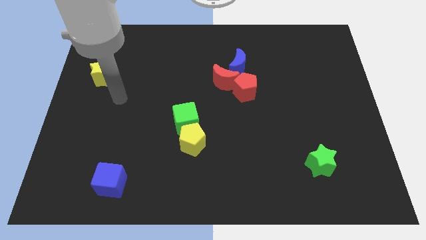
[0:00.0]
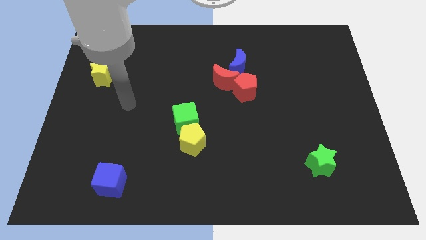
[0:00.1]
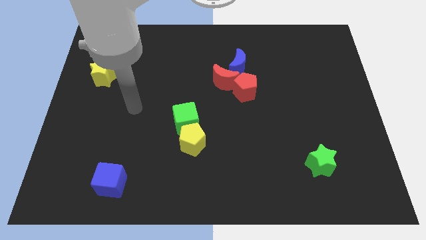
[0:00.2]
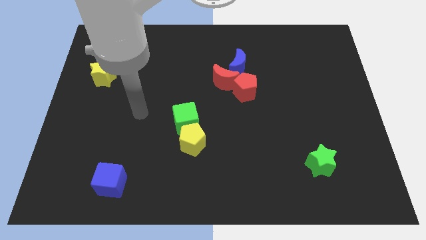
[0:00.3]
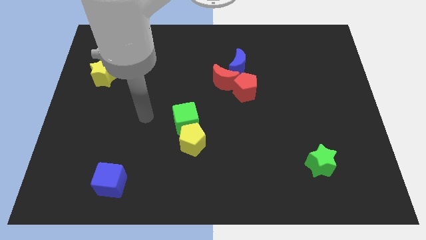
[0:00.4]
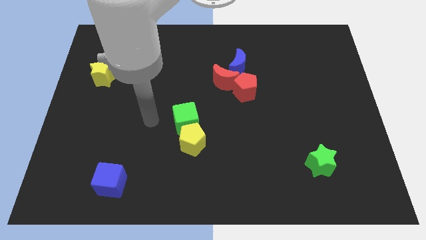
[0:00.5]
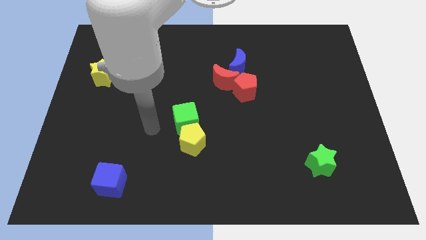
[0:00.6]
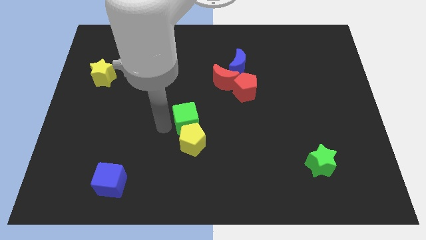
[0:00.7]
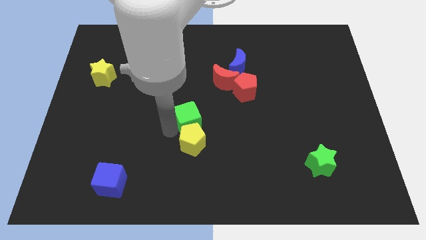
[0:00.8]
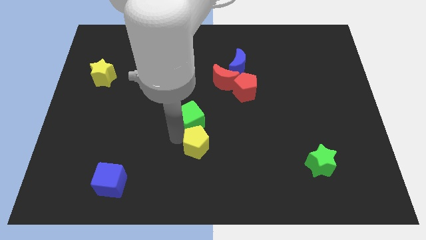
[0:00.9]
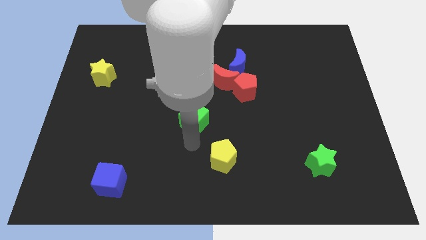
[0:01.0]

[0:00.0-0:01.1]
move the green cube away from the yellow pentagon

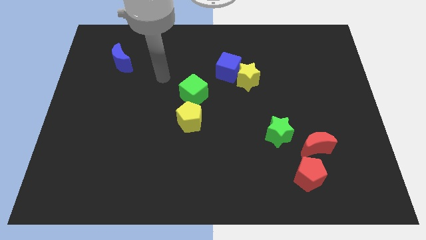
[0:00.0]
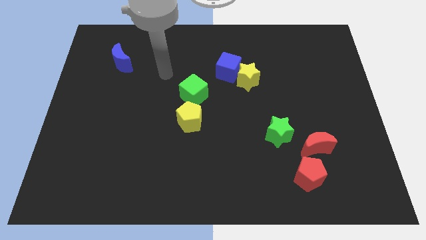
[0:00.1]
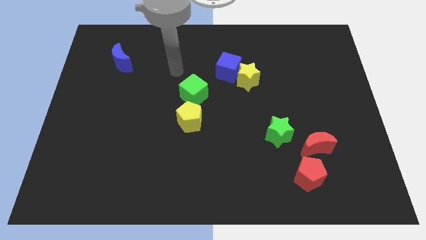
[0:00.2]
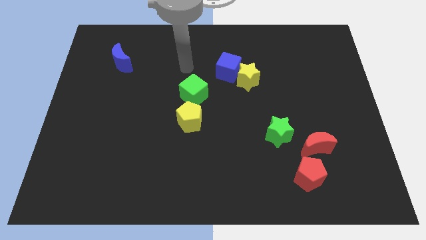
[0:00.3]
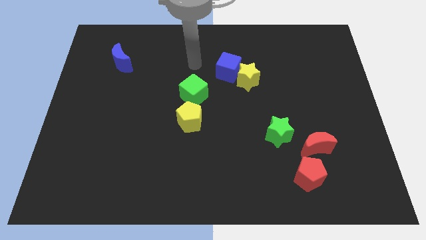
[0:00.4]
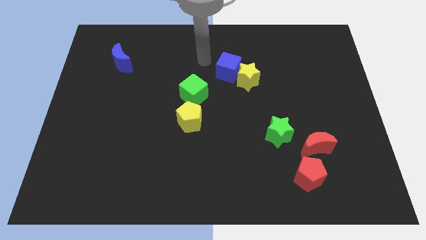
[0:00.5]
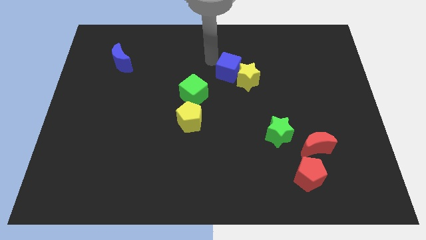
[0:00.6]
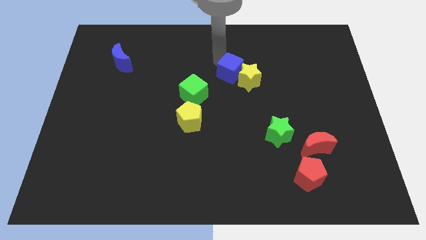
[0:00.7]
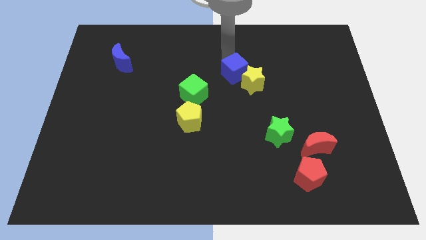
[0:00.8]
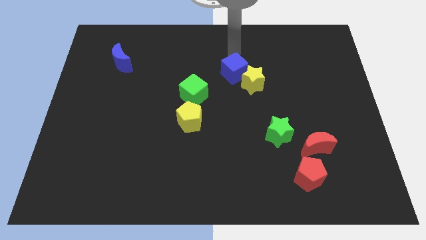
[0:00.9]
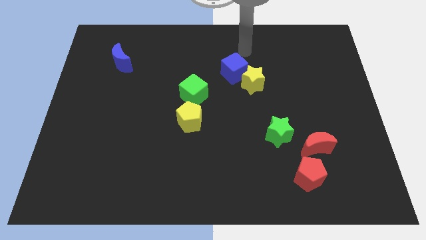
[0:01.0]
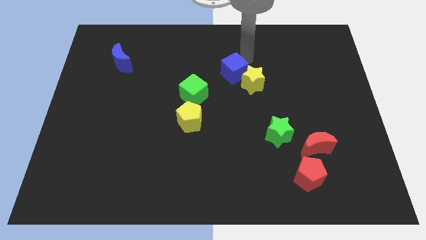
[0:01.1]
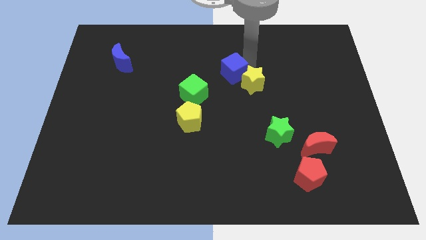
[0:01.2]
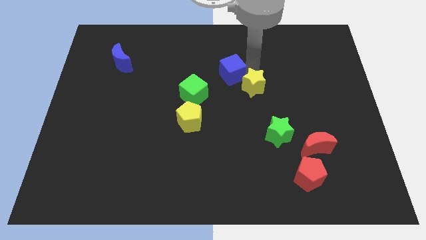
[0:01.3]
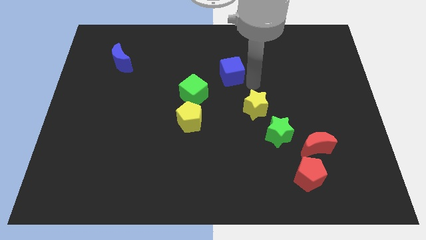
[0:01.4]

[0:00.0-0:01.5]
pull the blue cube apart from the yellow star

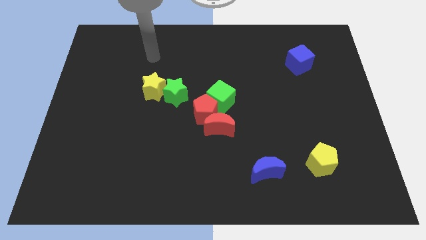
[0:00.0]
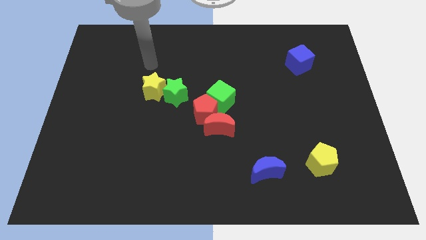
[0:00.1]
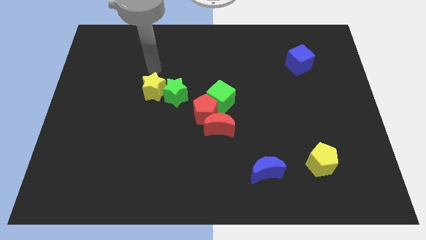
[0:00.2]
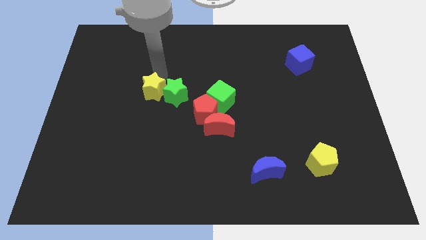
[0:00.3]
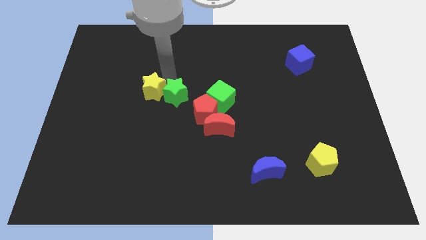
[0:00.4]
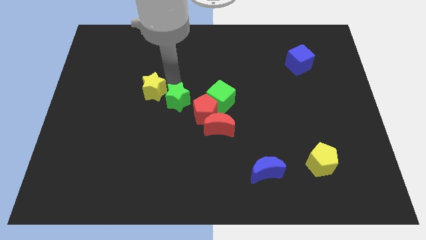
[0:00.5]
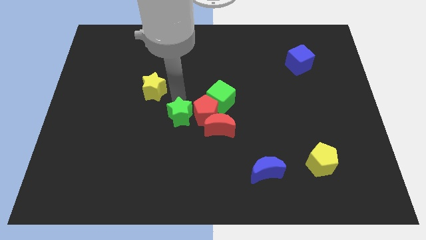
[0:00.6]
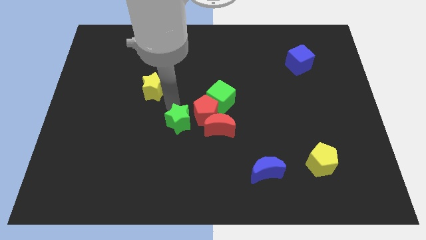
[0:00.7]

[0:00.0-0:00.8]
separate the yellow star from the green star

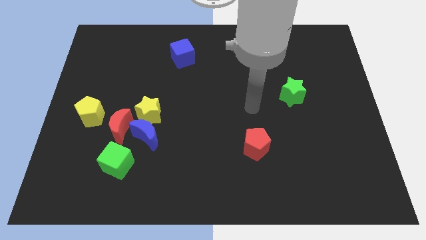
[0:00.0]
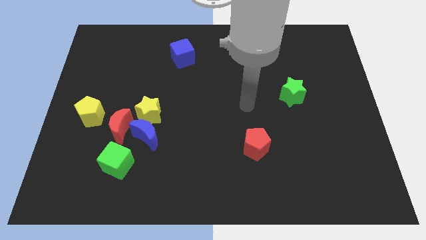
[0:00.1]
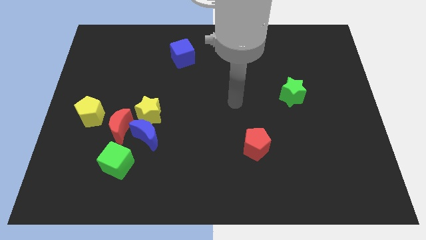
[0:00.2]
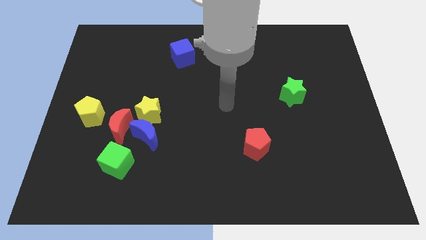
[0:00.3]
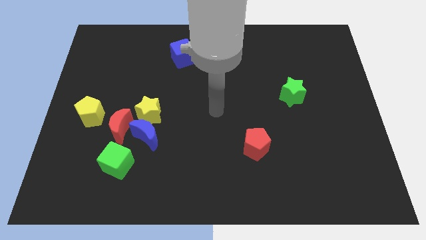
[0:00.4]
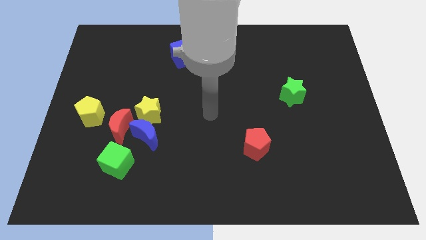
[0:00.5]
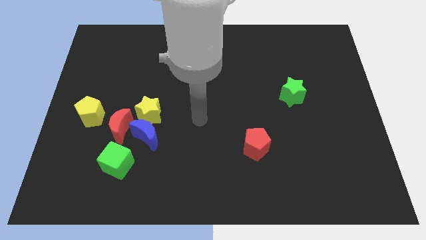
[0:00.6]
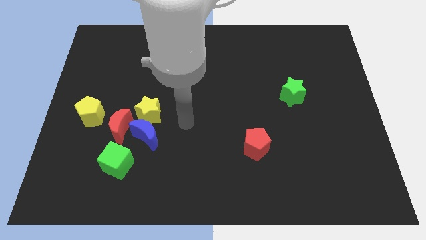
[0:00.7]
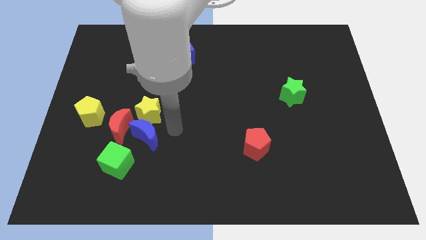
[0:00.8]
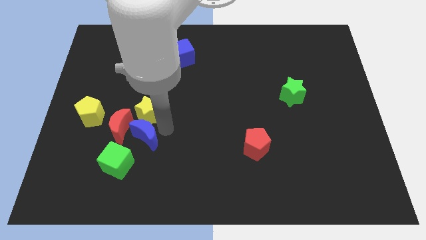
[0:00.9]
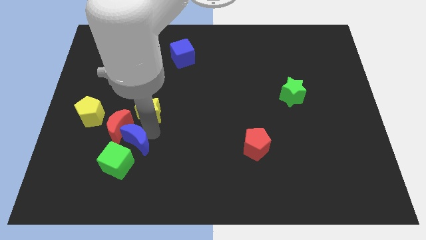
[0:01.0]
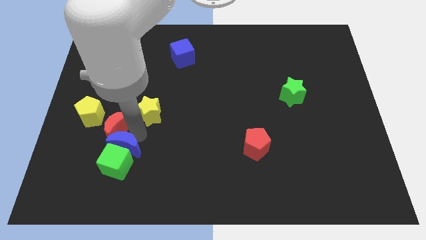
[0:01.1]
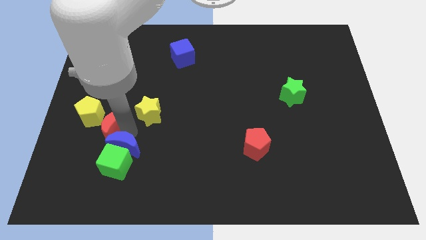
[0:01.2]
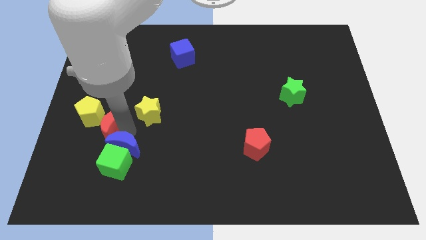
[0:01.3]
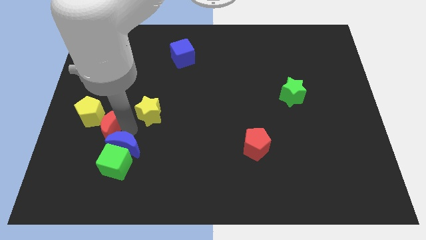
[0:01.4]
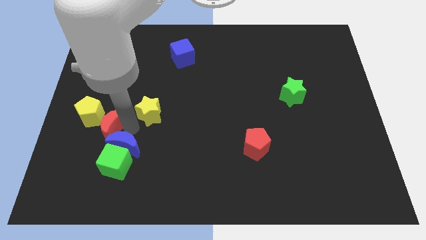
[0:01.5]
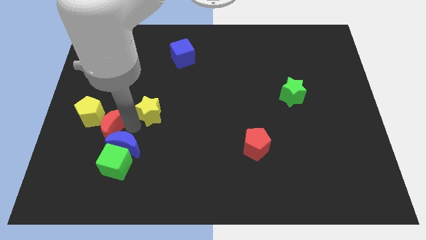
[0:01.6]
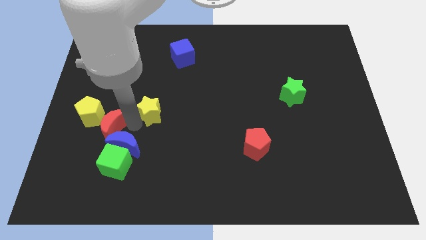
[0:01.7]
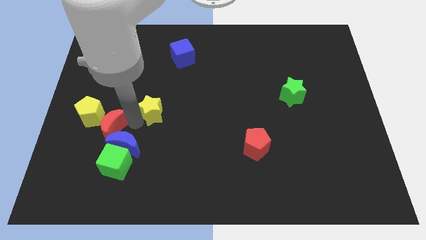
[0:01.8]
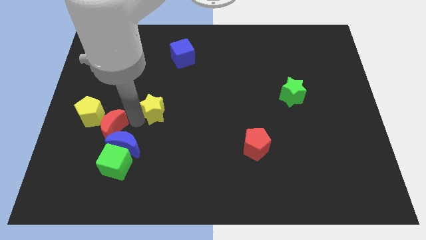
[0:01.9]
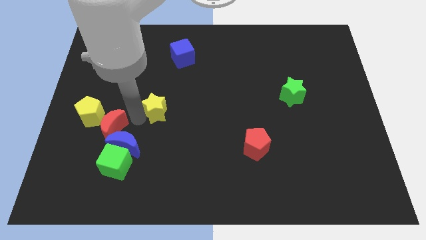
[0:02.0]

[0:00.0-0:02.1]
move the yellow star away from the blue moon and red moon

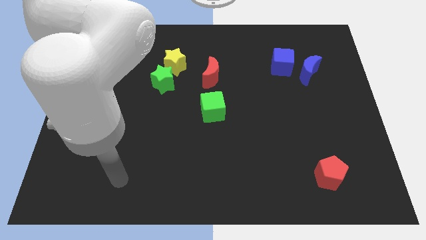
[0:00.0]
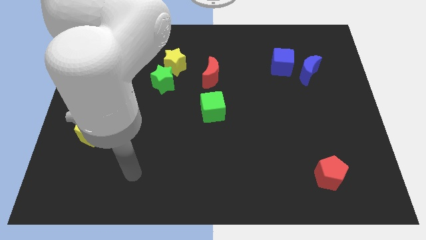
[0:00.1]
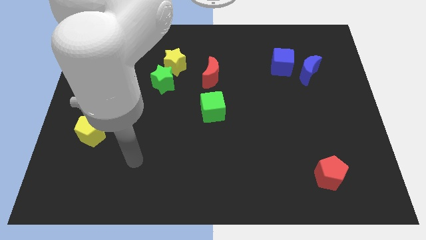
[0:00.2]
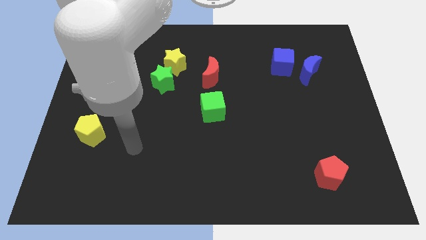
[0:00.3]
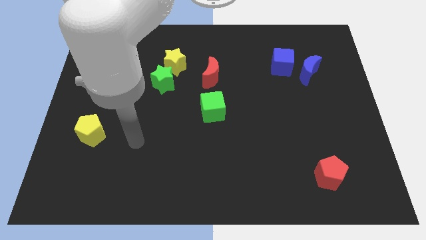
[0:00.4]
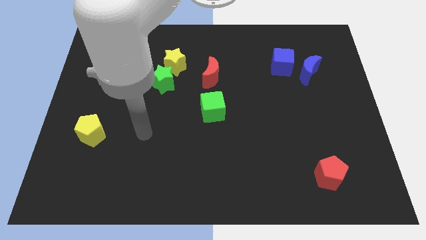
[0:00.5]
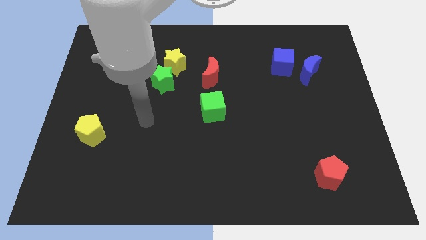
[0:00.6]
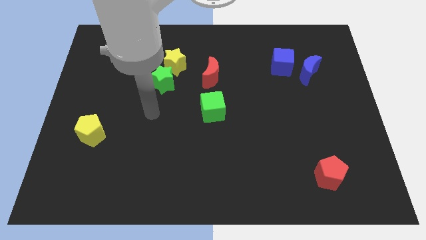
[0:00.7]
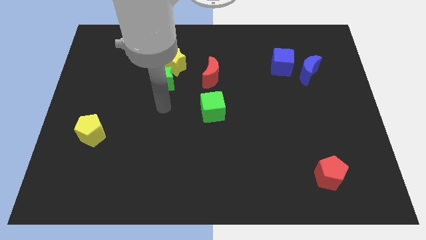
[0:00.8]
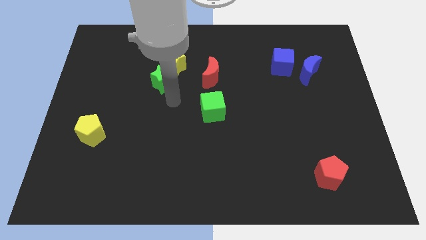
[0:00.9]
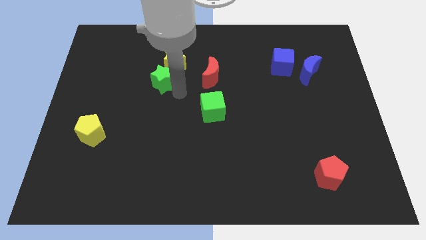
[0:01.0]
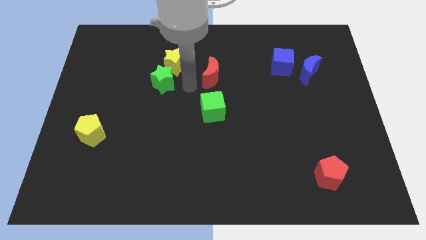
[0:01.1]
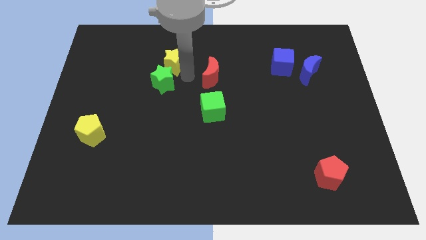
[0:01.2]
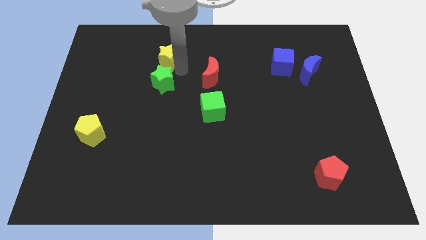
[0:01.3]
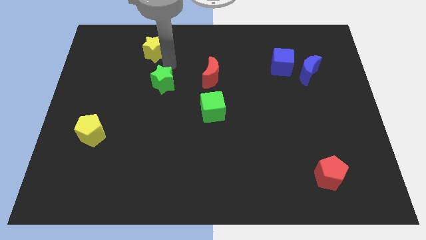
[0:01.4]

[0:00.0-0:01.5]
move the green star away from the yellow star

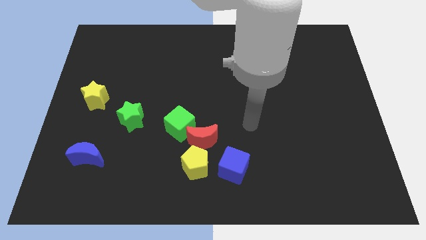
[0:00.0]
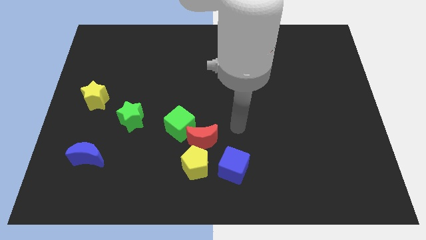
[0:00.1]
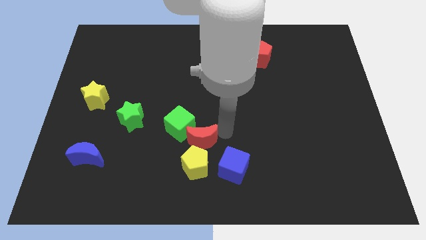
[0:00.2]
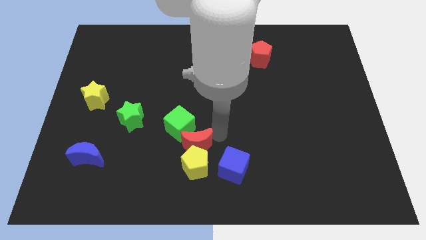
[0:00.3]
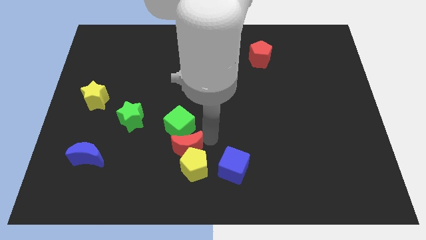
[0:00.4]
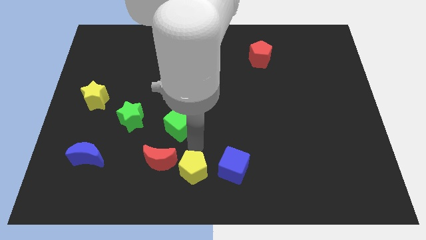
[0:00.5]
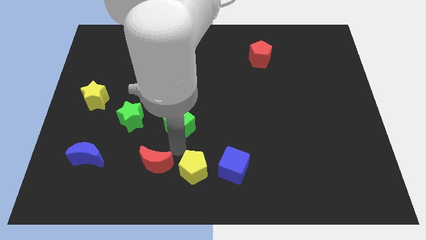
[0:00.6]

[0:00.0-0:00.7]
pull the green cube apart from the red moon

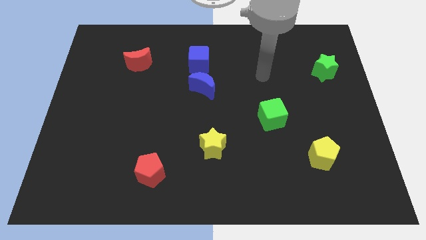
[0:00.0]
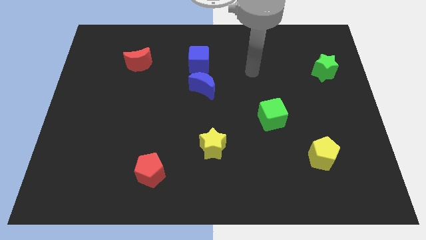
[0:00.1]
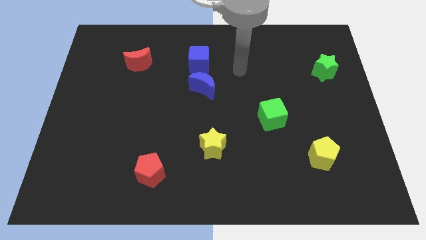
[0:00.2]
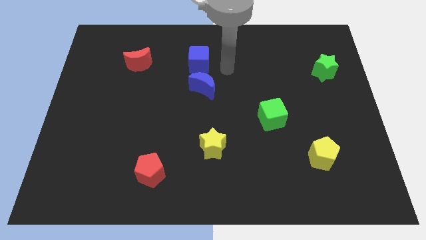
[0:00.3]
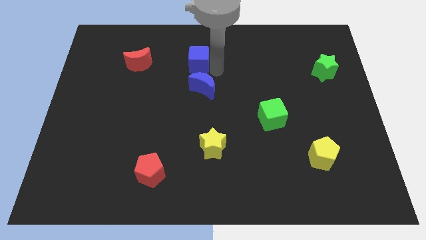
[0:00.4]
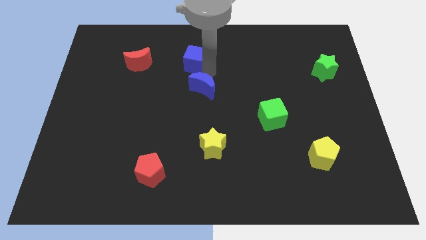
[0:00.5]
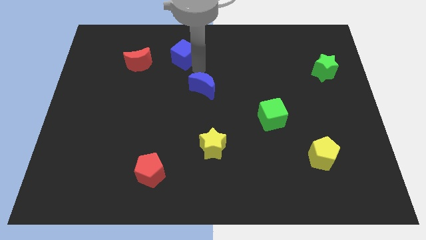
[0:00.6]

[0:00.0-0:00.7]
separate the blue moon from the blue cube

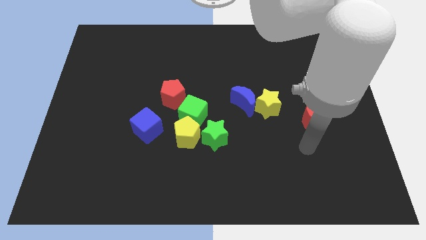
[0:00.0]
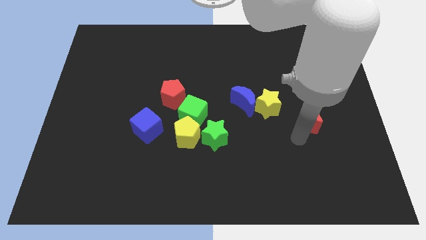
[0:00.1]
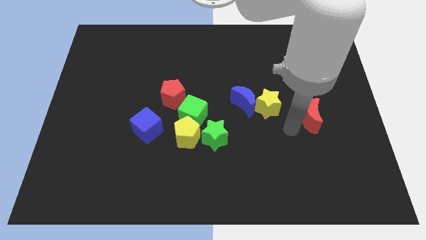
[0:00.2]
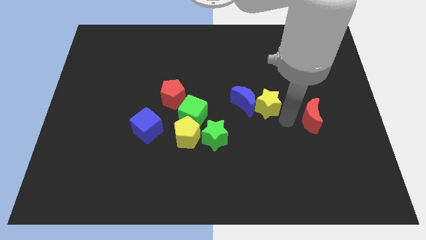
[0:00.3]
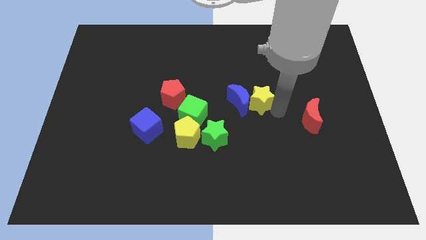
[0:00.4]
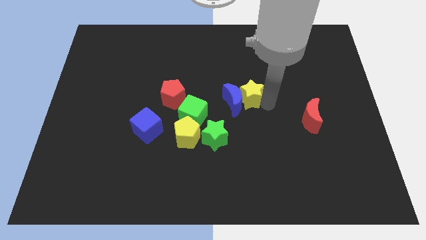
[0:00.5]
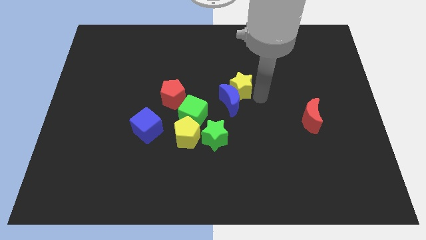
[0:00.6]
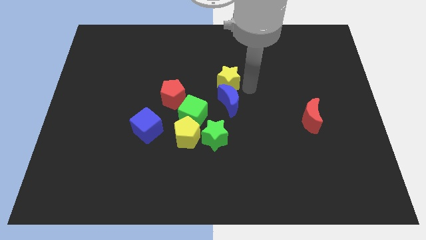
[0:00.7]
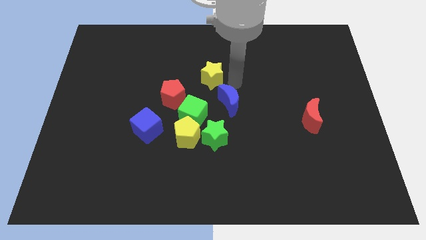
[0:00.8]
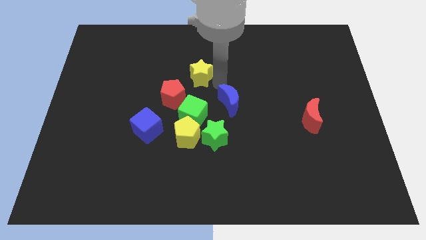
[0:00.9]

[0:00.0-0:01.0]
separate the blue moon from the yellow star
